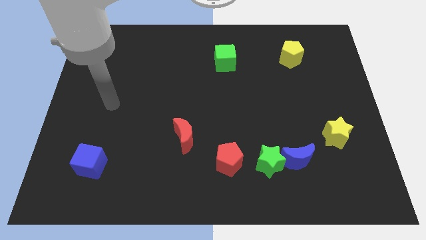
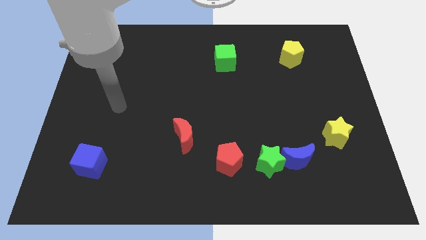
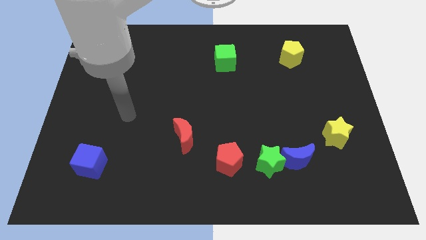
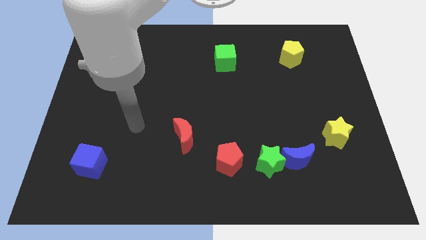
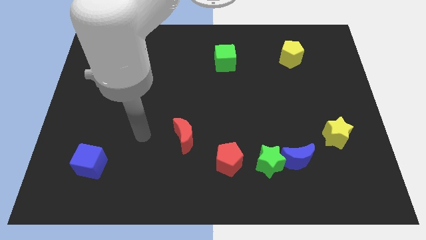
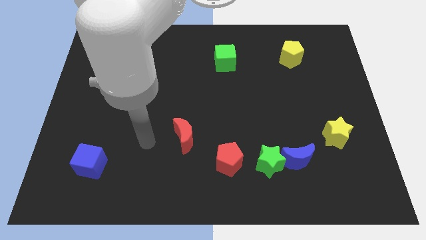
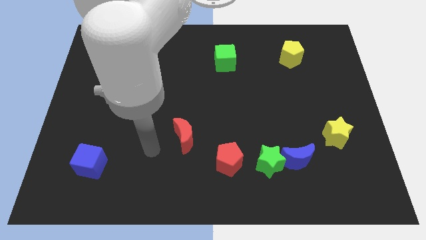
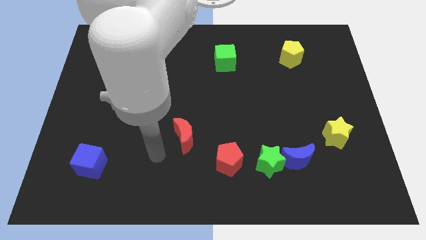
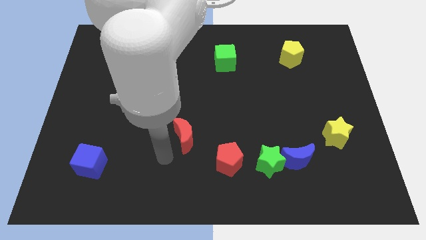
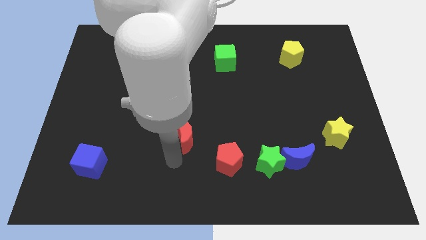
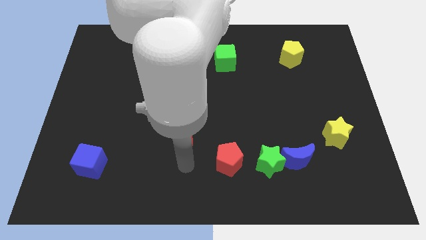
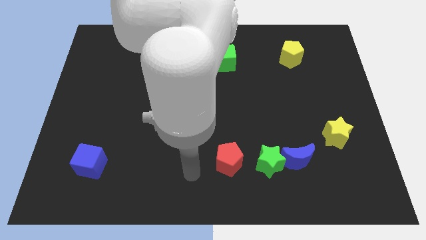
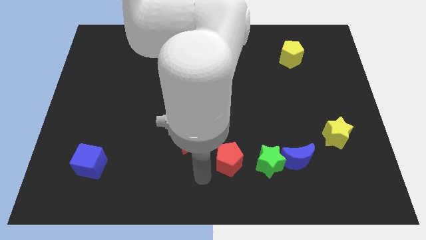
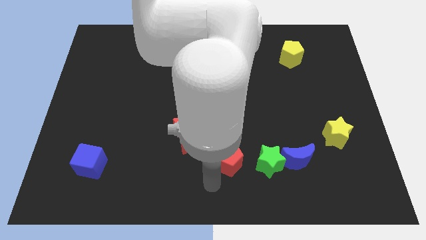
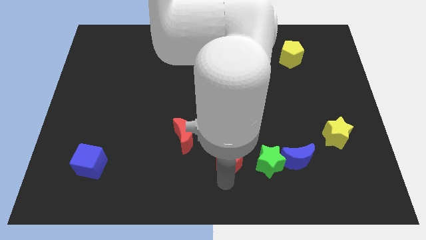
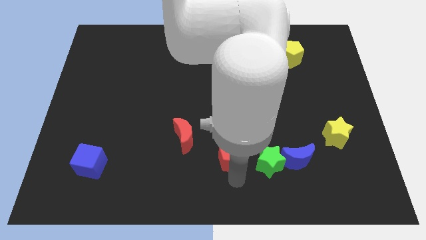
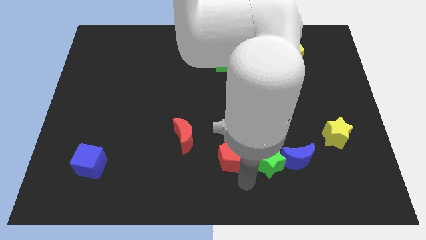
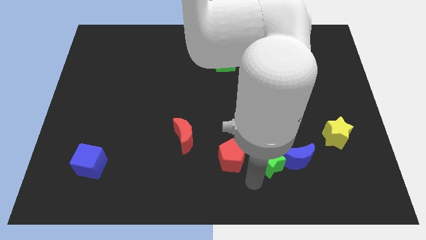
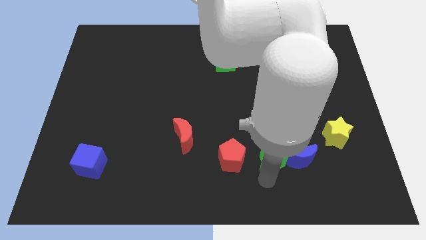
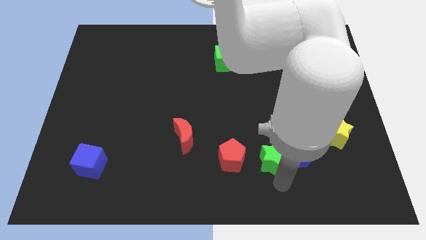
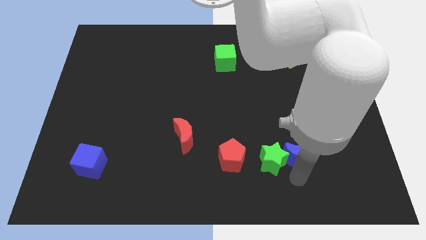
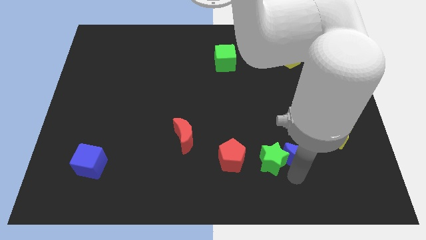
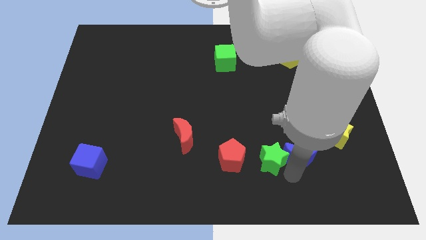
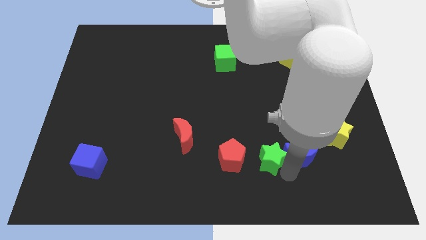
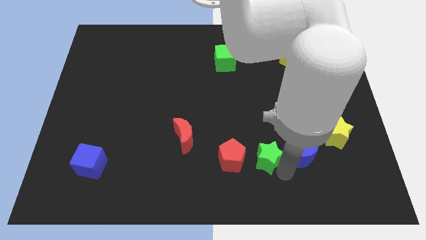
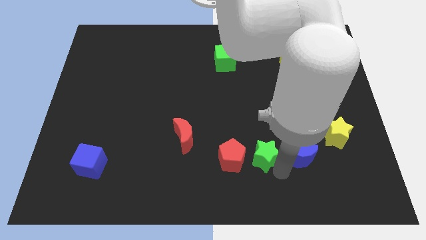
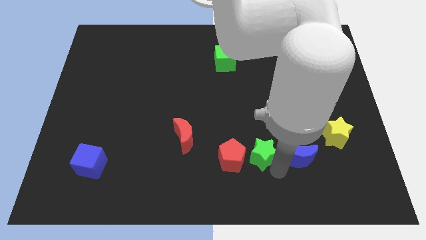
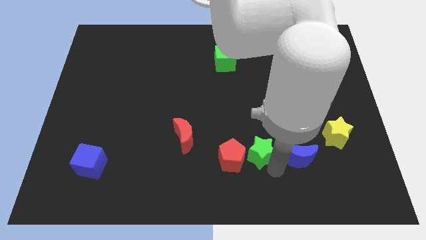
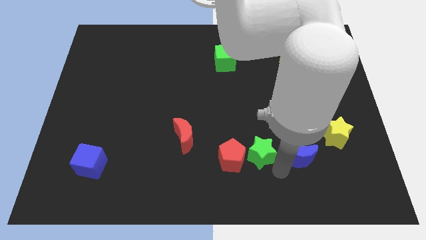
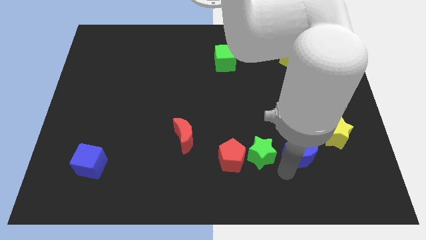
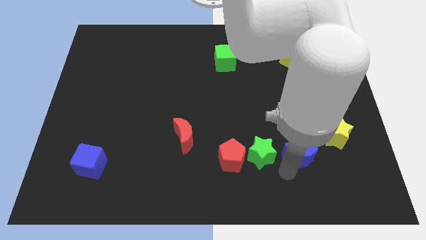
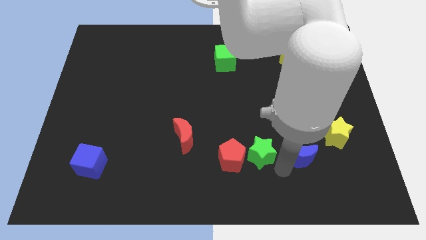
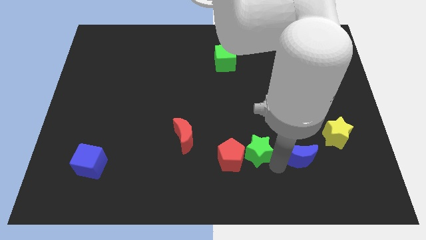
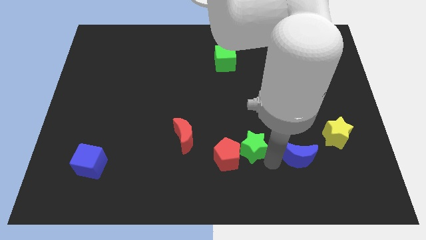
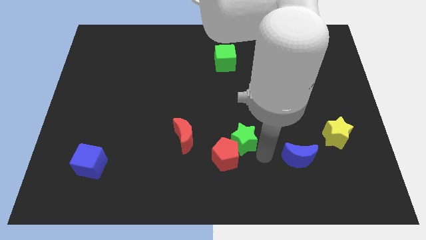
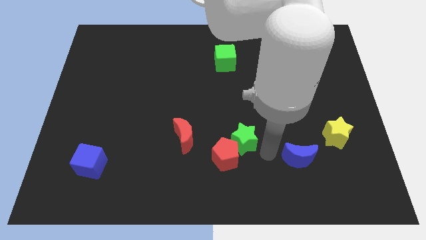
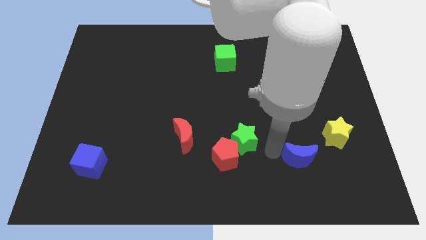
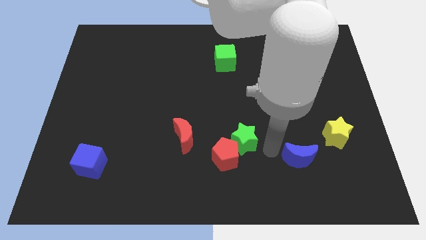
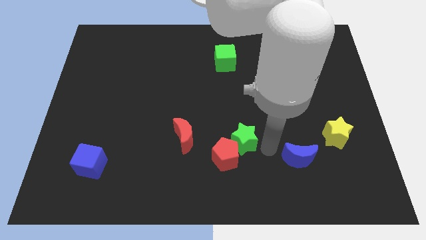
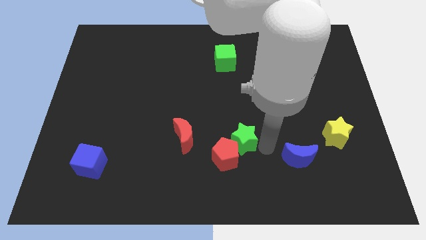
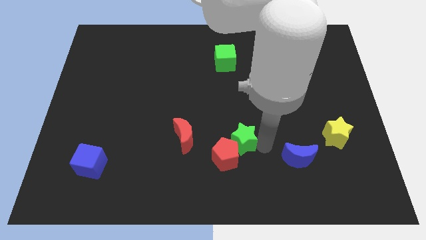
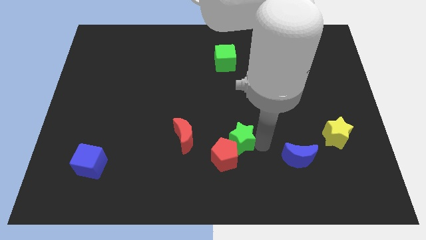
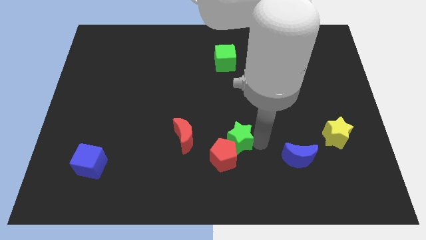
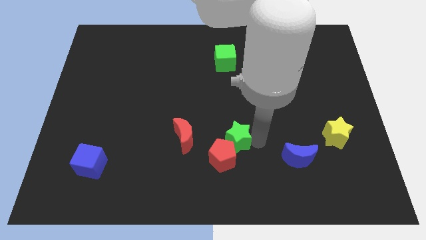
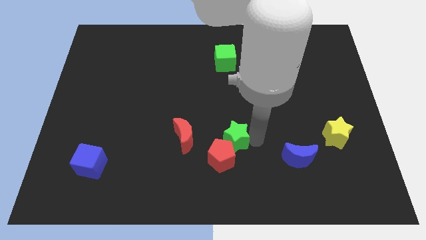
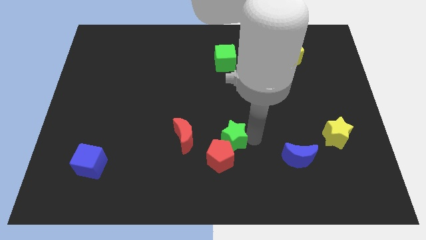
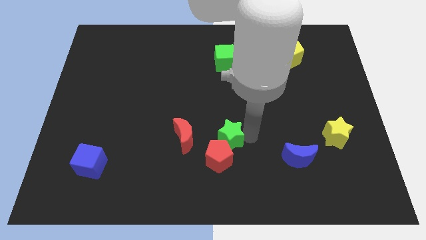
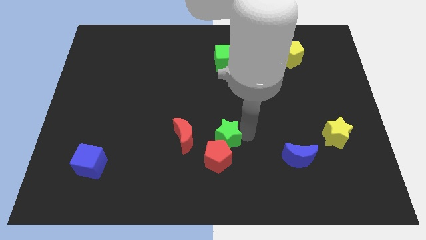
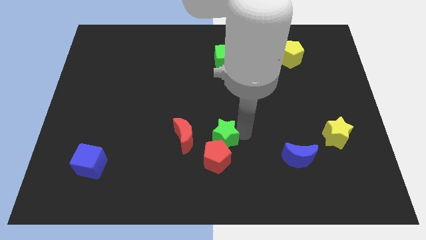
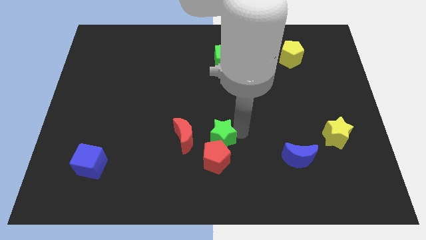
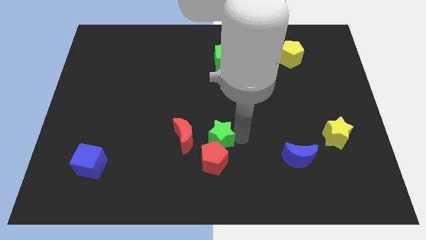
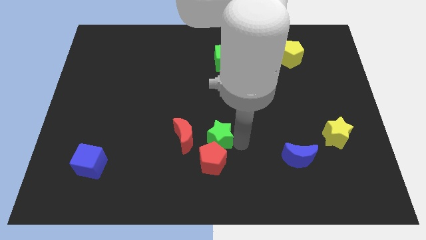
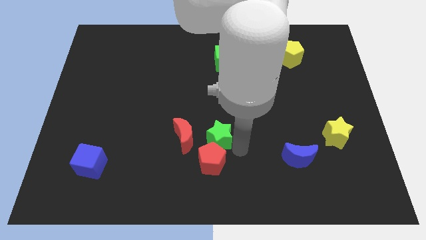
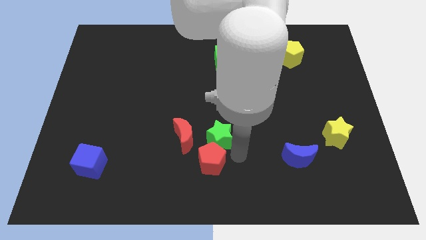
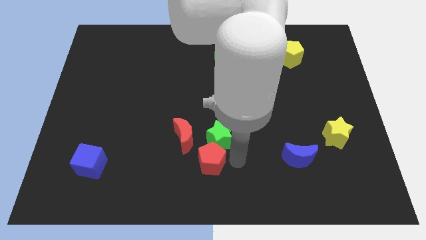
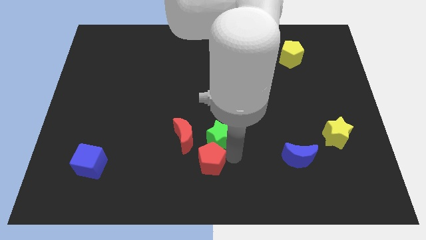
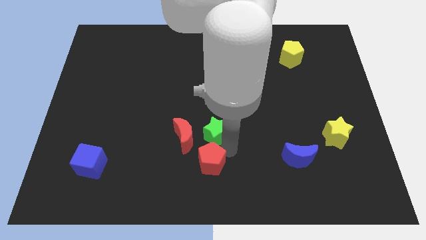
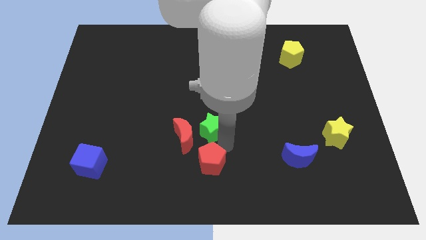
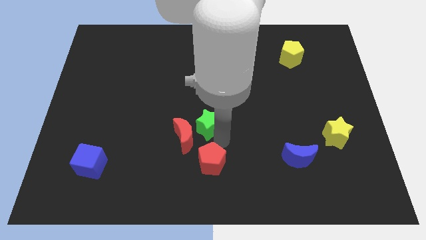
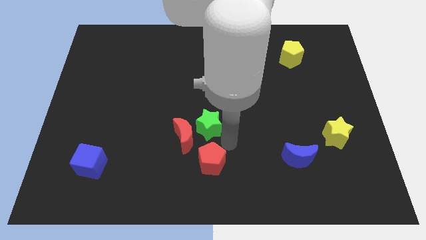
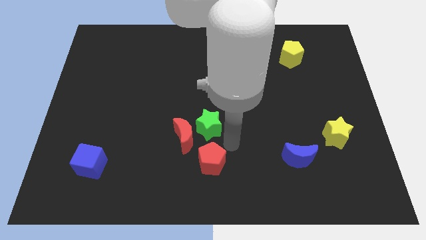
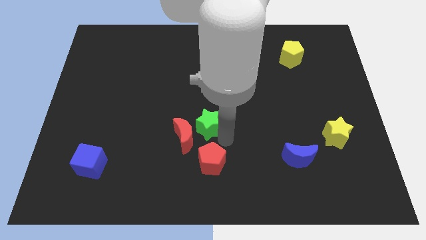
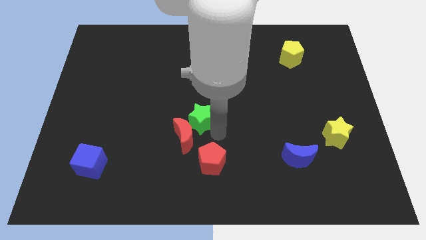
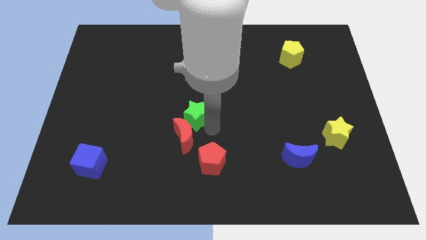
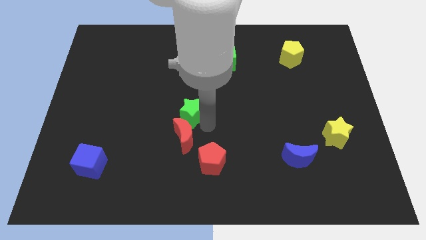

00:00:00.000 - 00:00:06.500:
push the green star upwards and to the left

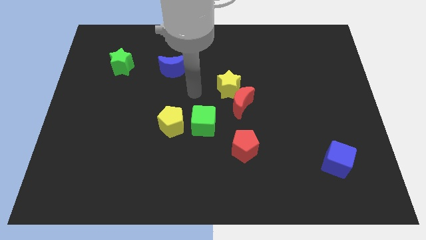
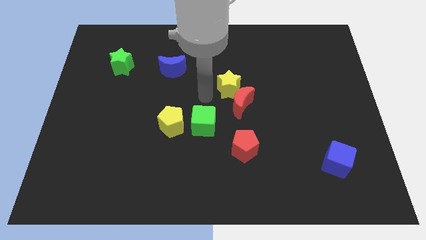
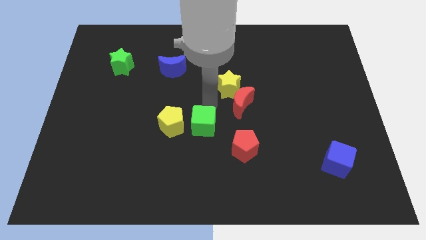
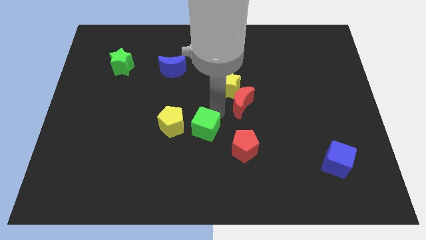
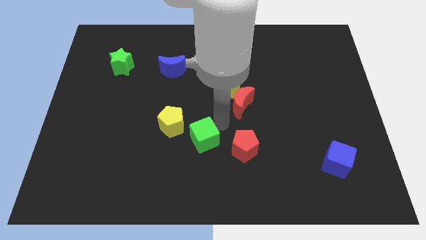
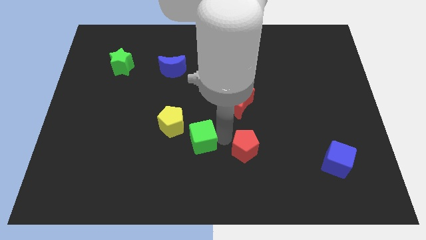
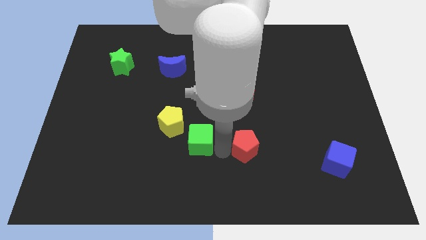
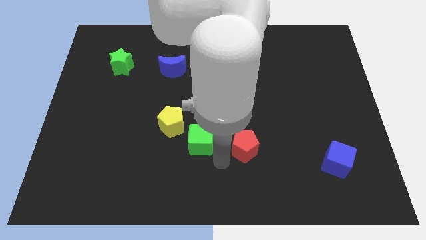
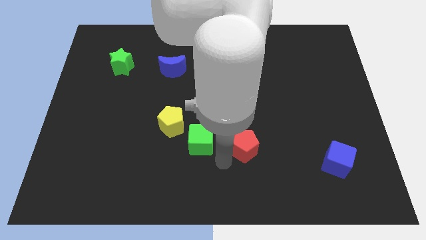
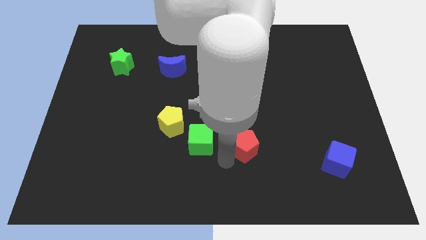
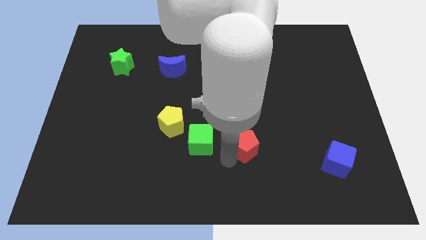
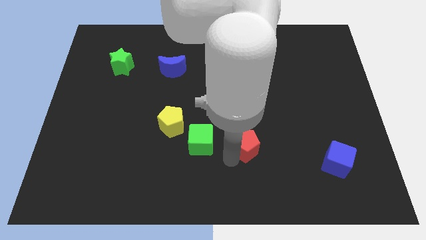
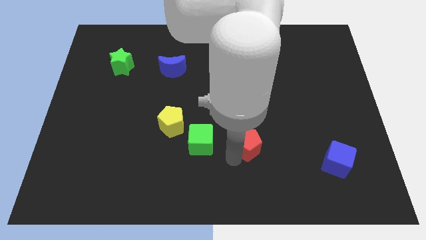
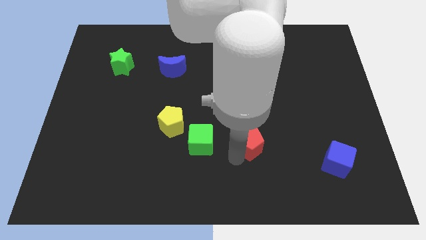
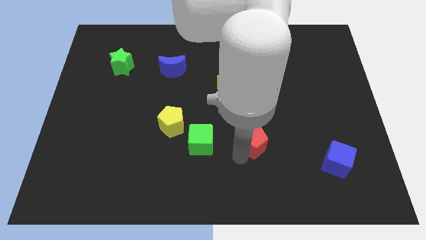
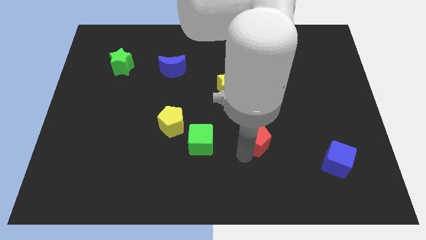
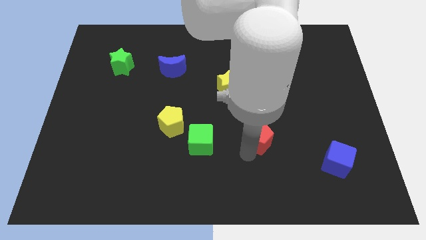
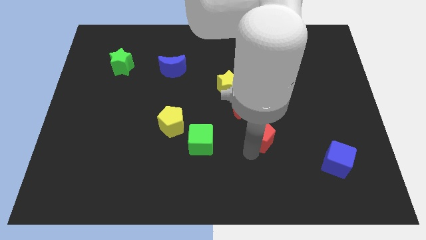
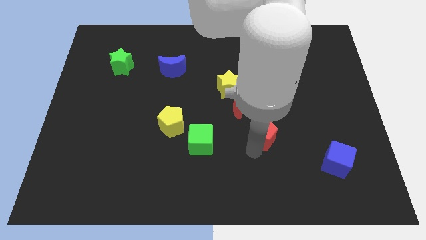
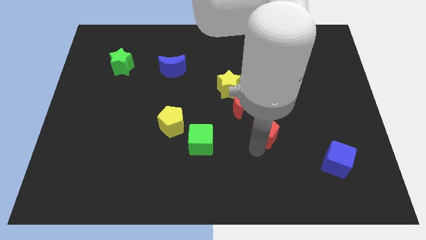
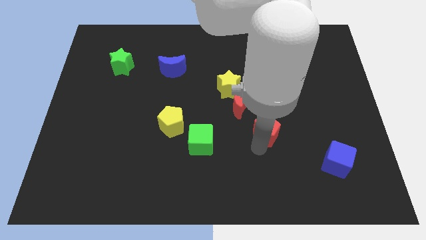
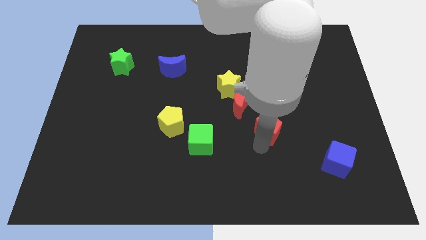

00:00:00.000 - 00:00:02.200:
slightly move the red pentagon diagonally upwards and right
